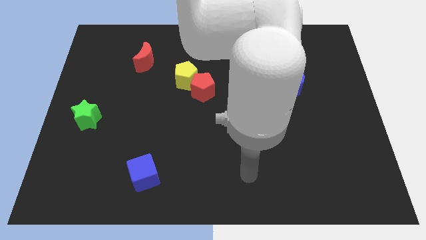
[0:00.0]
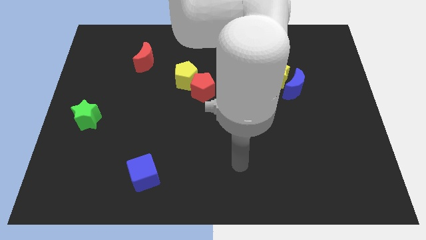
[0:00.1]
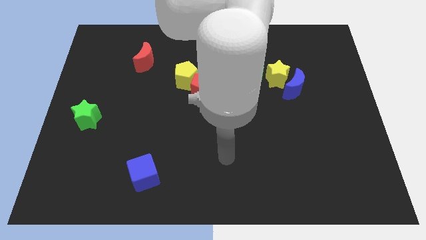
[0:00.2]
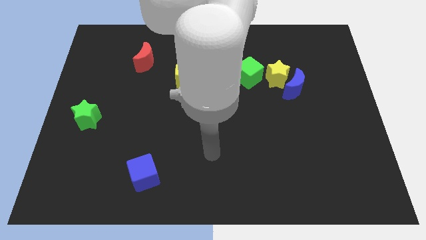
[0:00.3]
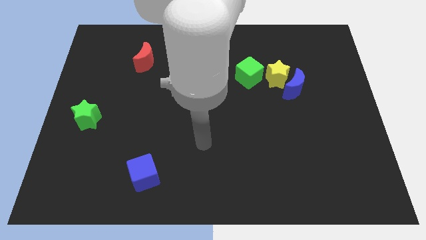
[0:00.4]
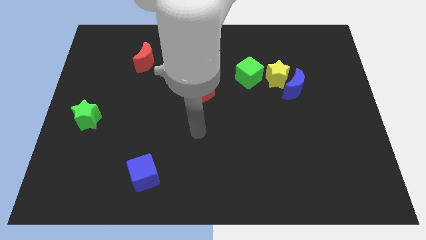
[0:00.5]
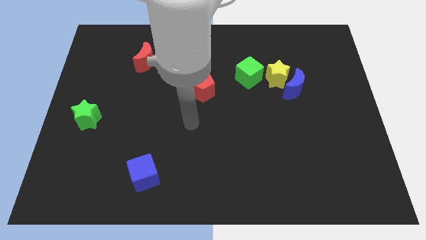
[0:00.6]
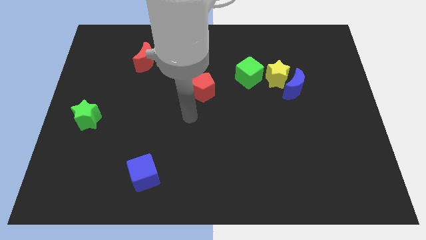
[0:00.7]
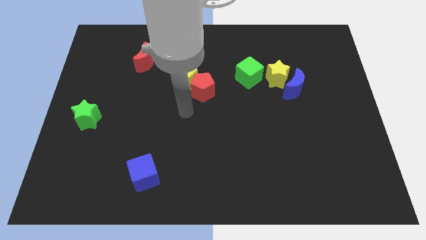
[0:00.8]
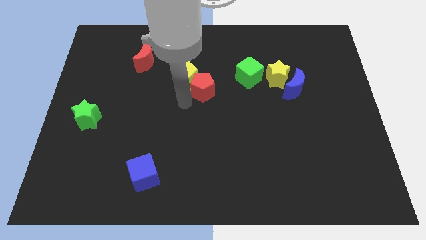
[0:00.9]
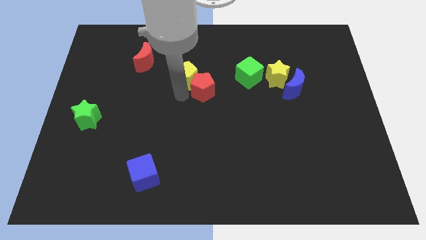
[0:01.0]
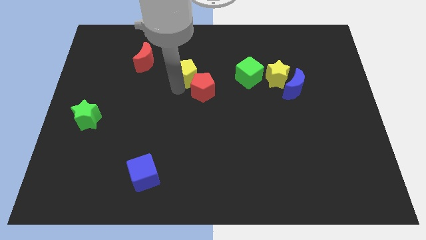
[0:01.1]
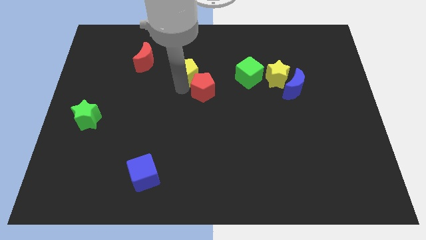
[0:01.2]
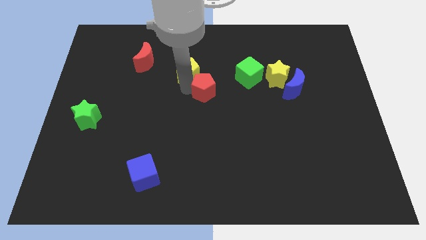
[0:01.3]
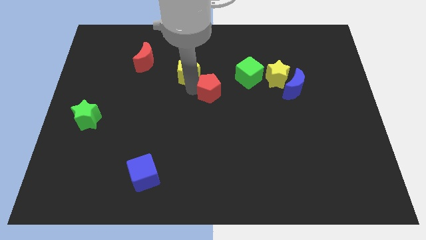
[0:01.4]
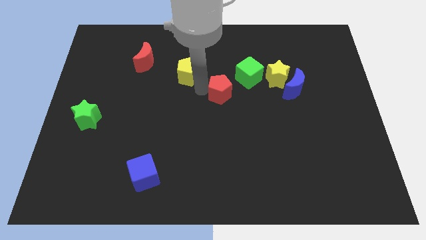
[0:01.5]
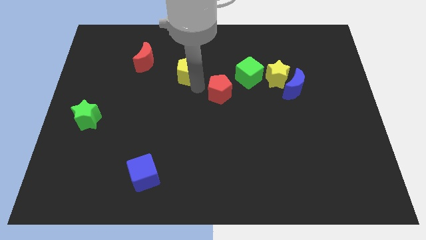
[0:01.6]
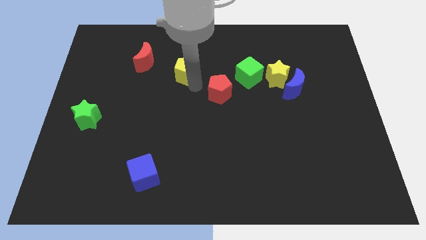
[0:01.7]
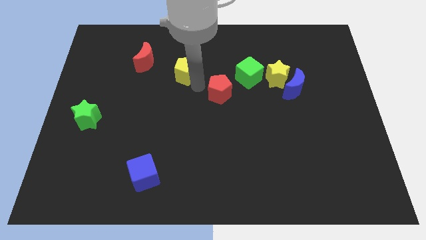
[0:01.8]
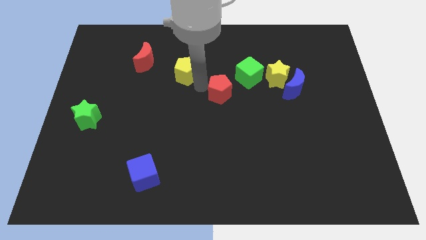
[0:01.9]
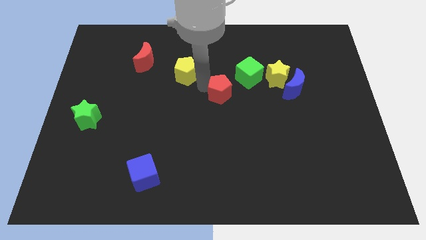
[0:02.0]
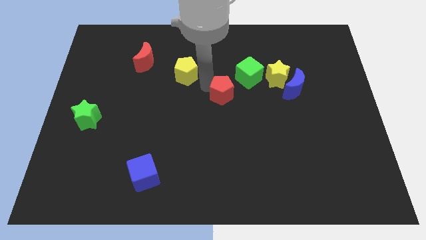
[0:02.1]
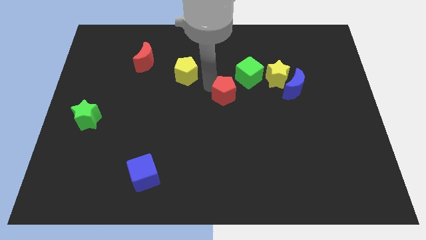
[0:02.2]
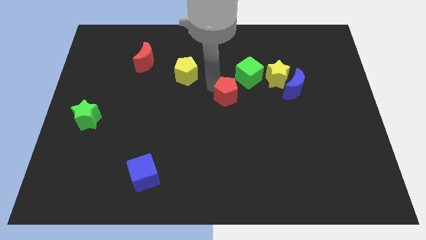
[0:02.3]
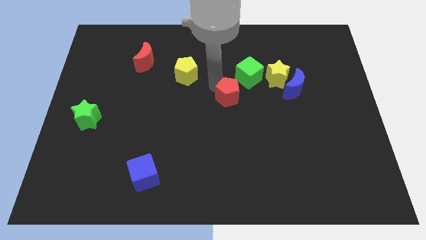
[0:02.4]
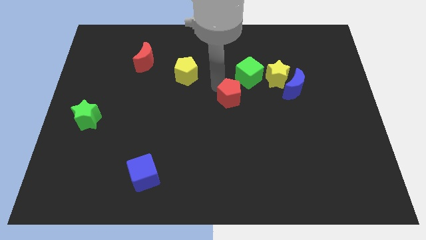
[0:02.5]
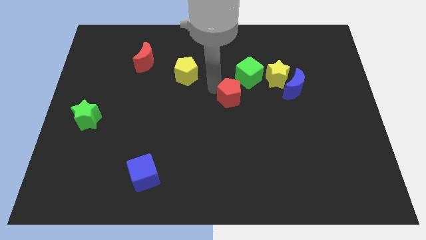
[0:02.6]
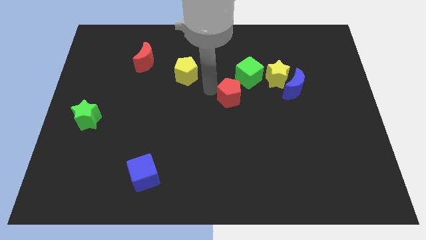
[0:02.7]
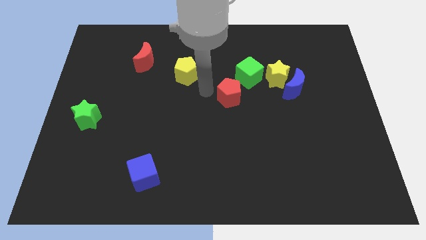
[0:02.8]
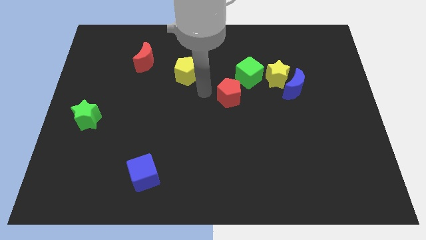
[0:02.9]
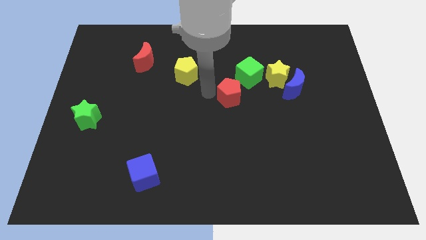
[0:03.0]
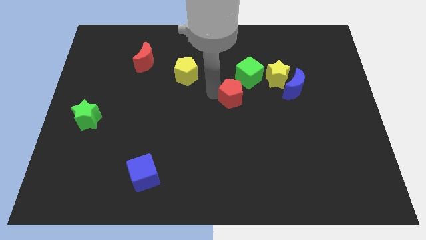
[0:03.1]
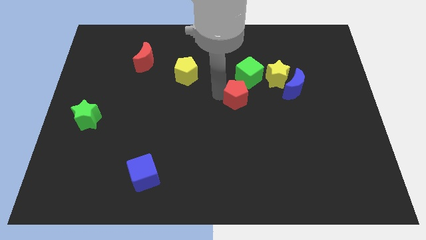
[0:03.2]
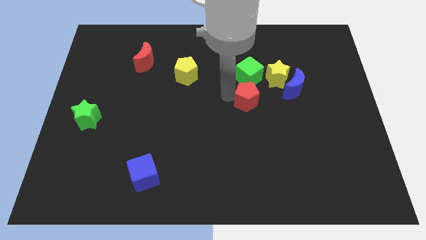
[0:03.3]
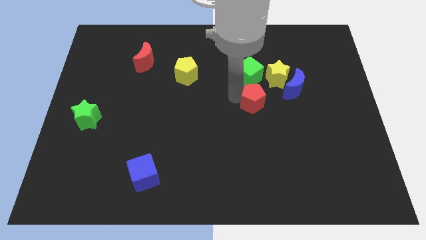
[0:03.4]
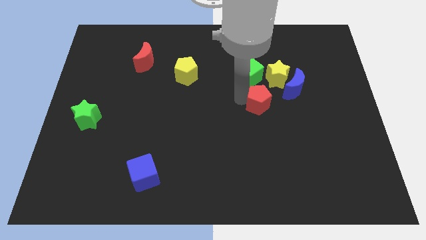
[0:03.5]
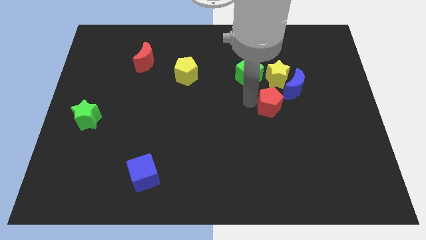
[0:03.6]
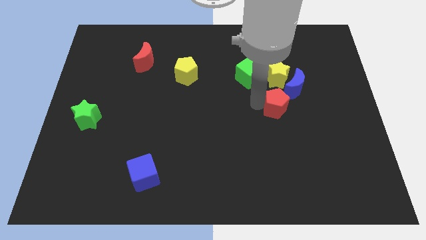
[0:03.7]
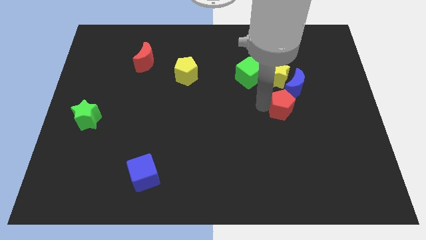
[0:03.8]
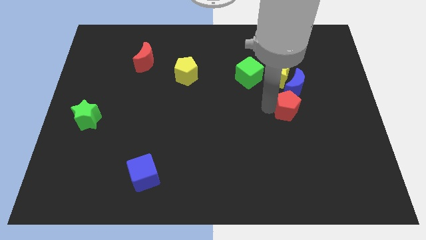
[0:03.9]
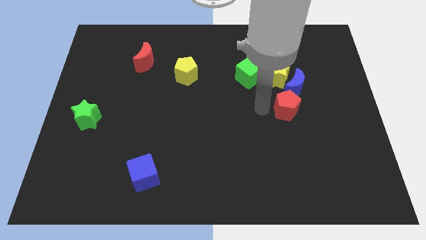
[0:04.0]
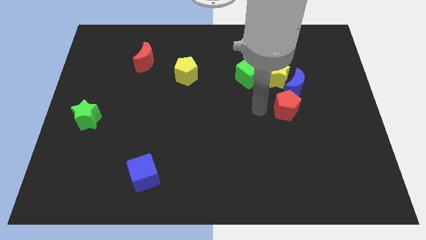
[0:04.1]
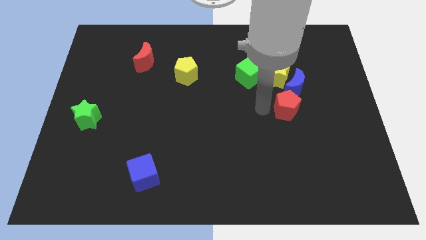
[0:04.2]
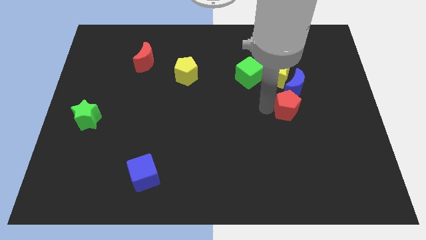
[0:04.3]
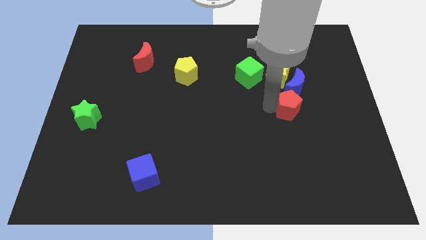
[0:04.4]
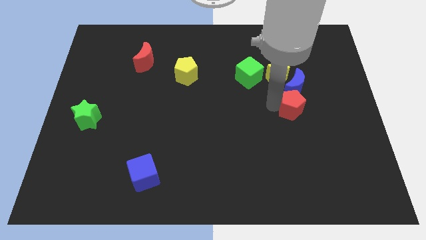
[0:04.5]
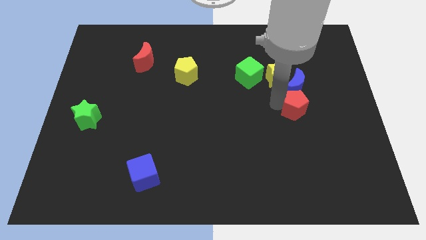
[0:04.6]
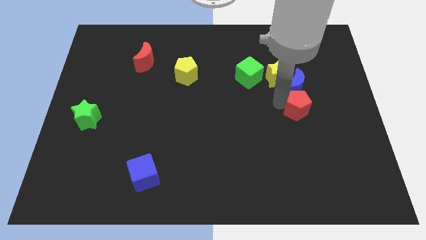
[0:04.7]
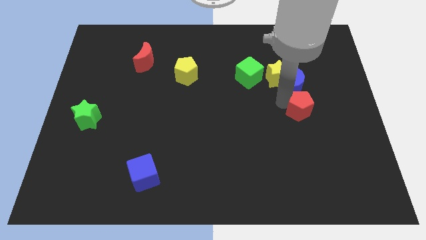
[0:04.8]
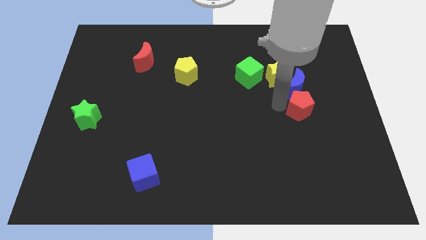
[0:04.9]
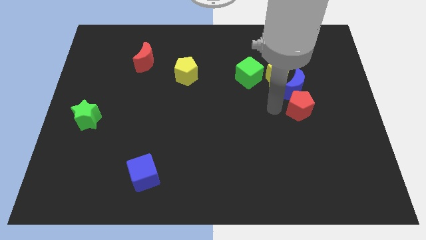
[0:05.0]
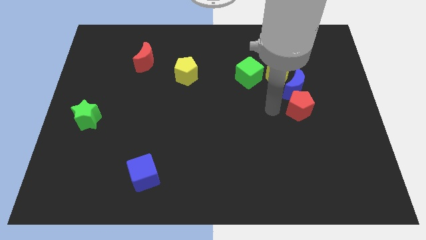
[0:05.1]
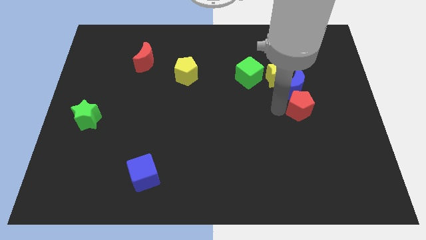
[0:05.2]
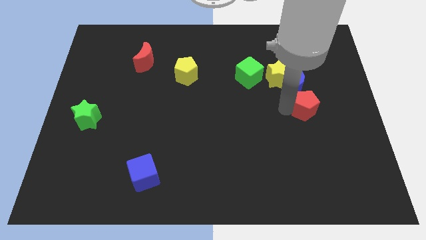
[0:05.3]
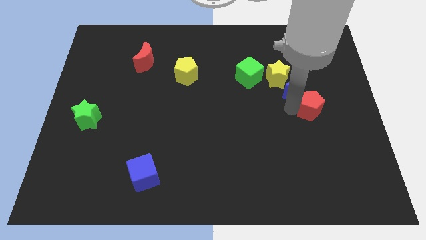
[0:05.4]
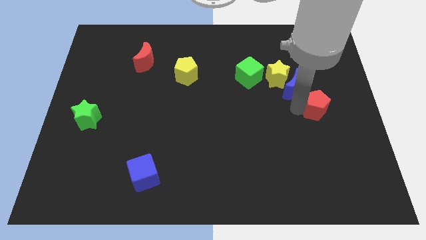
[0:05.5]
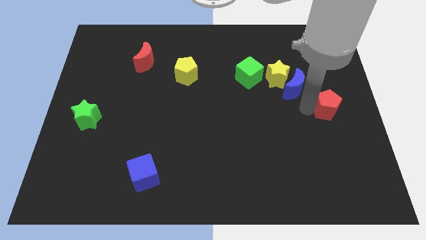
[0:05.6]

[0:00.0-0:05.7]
slide the red pentagon to the center right

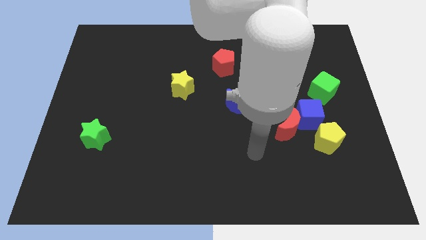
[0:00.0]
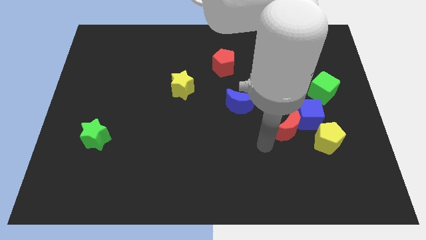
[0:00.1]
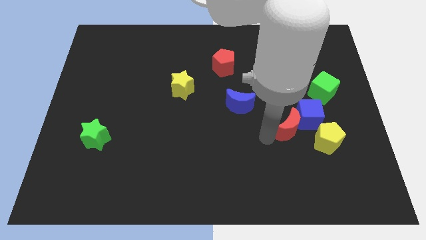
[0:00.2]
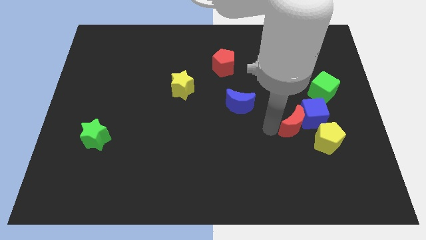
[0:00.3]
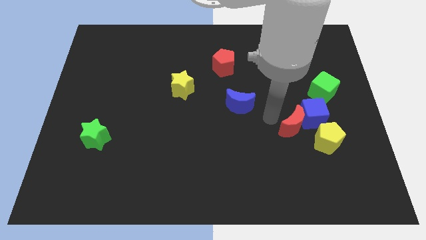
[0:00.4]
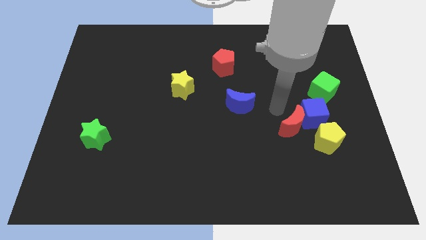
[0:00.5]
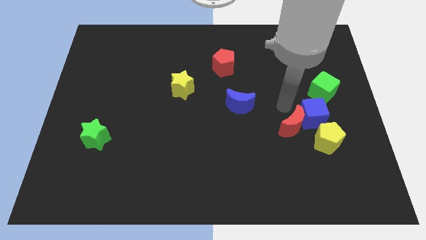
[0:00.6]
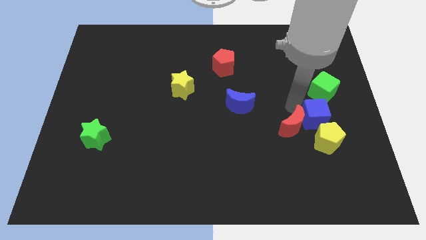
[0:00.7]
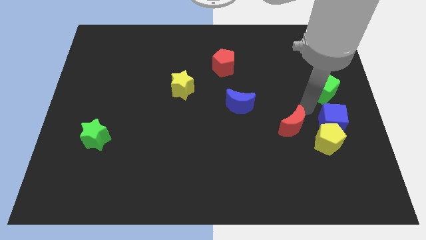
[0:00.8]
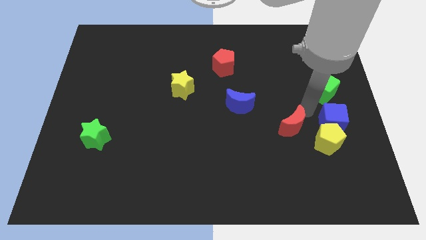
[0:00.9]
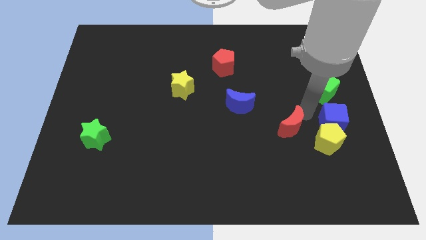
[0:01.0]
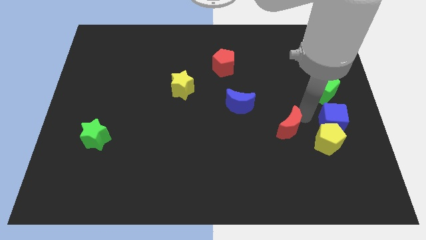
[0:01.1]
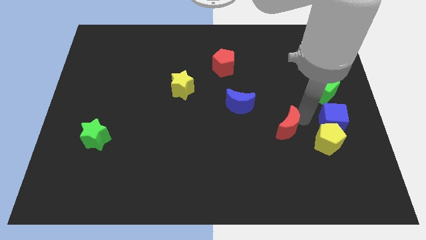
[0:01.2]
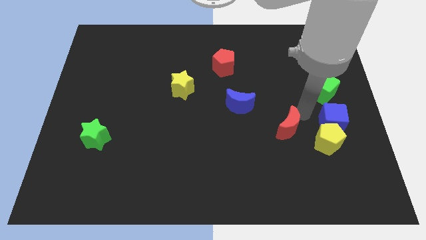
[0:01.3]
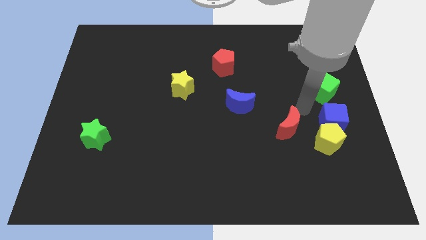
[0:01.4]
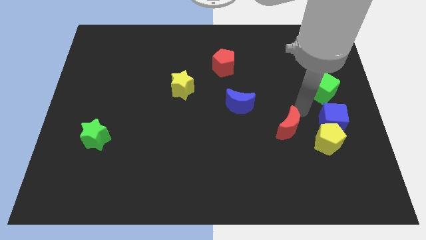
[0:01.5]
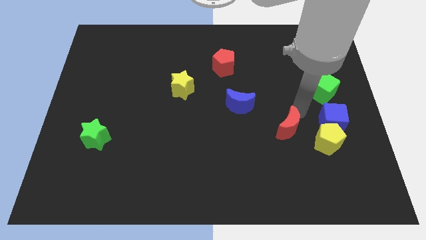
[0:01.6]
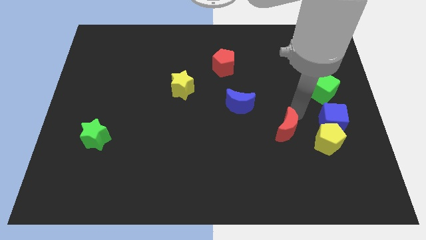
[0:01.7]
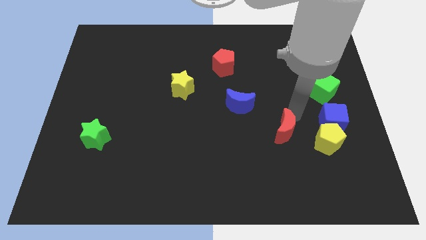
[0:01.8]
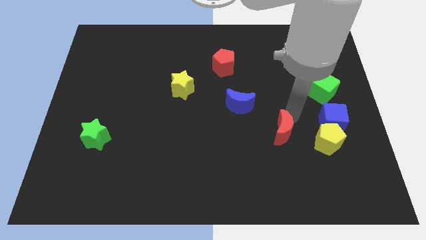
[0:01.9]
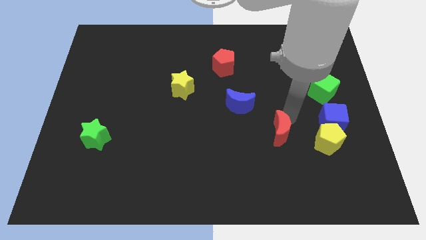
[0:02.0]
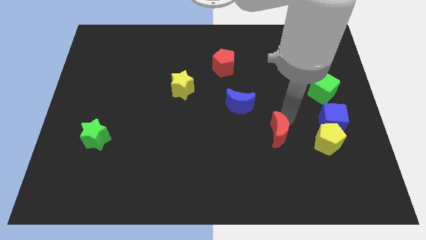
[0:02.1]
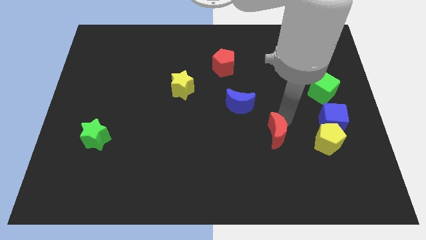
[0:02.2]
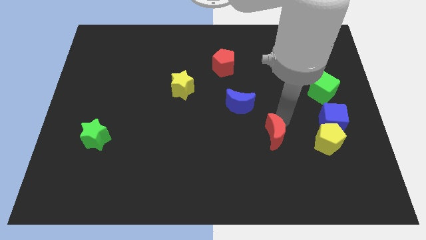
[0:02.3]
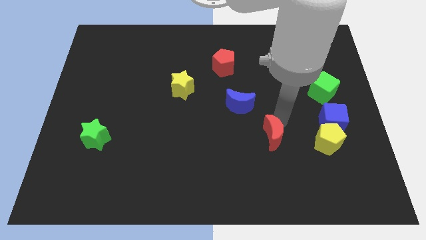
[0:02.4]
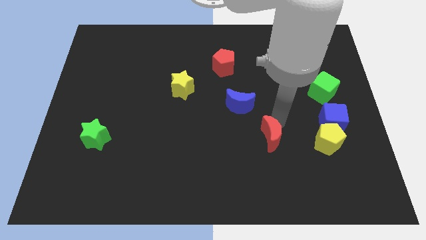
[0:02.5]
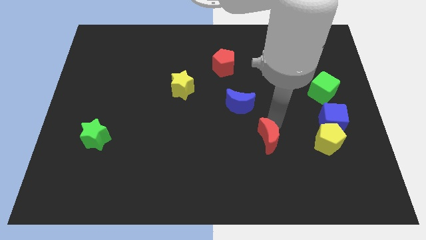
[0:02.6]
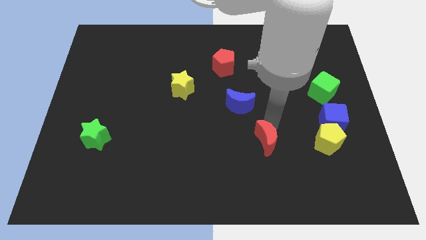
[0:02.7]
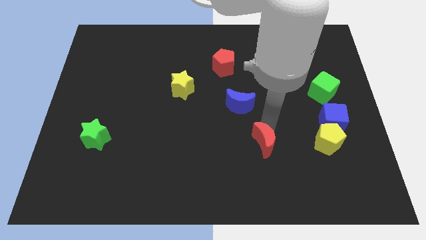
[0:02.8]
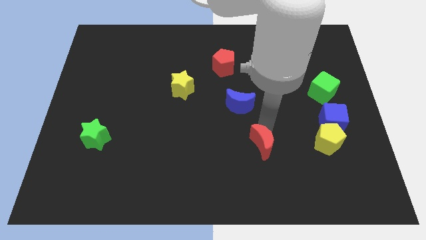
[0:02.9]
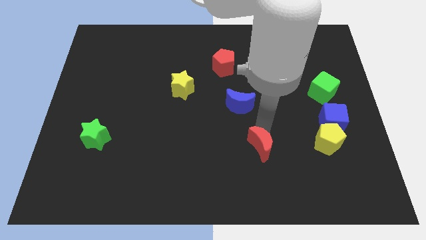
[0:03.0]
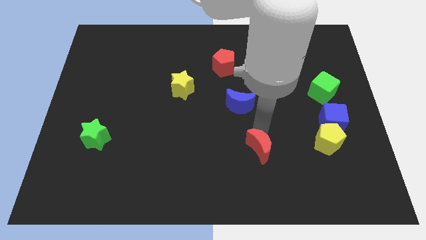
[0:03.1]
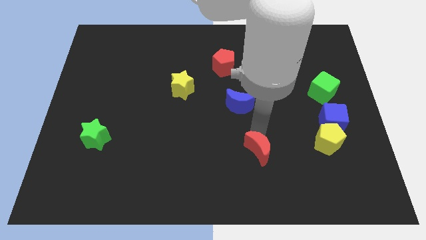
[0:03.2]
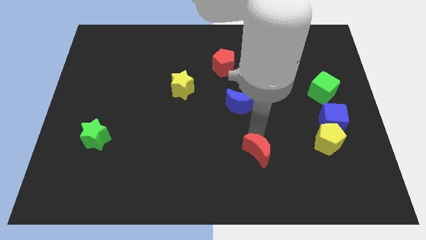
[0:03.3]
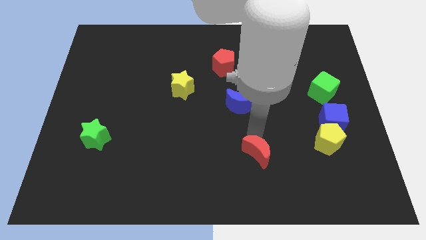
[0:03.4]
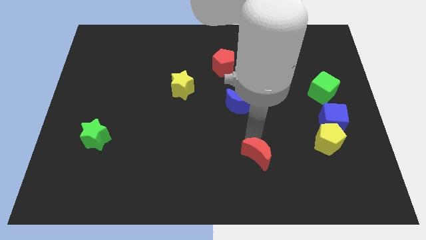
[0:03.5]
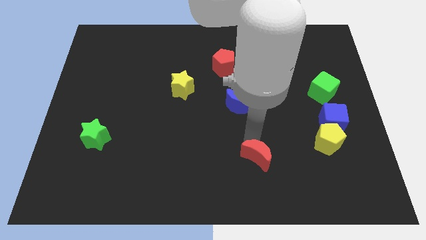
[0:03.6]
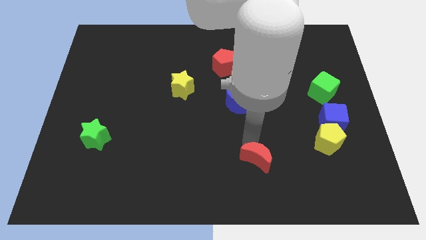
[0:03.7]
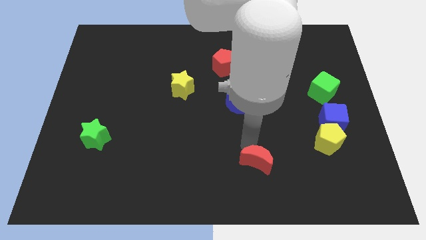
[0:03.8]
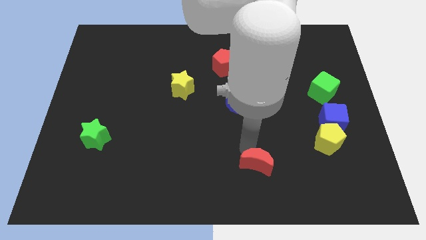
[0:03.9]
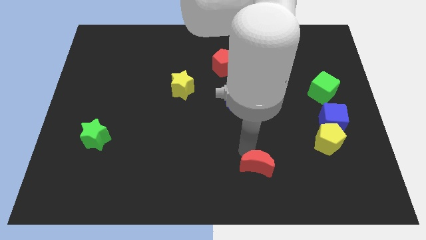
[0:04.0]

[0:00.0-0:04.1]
slide the red moon to the bottom
